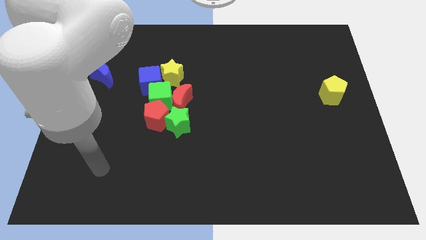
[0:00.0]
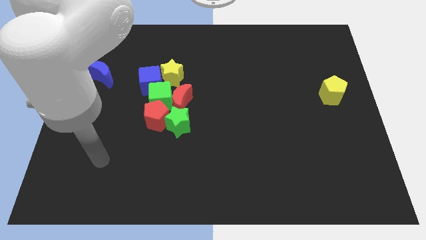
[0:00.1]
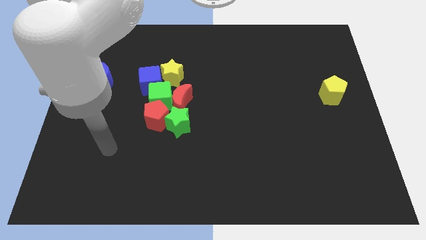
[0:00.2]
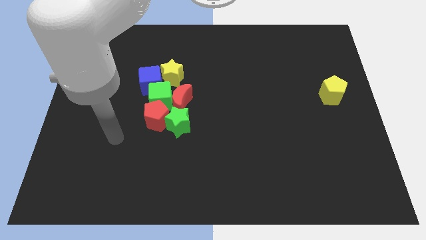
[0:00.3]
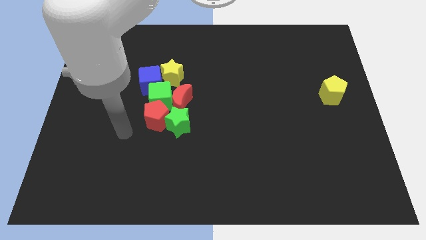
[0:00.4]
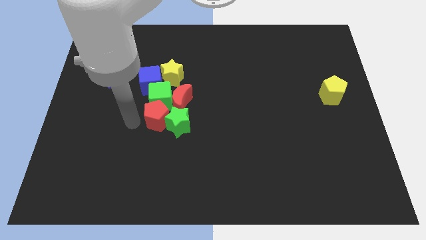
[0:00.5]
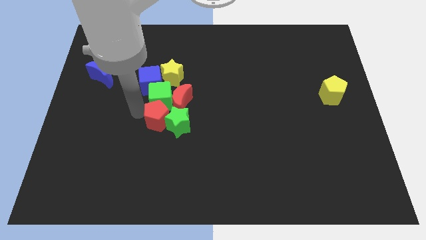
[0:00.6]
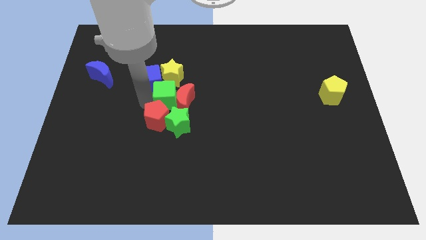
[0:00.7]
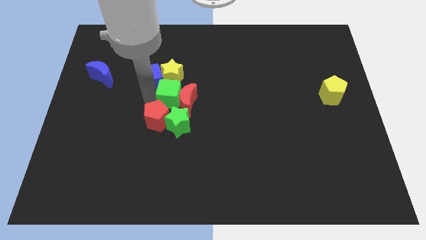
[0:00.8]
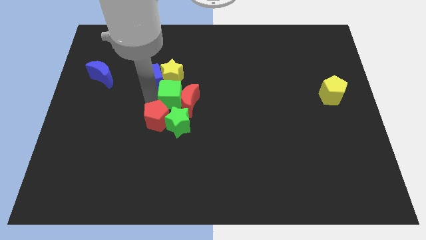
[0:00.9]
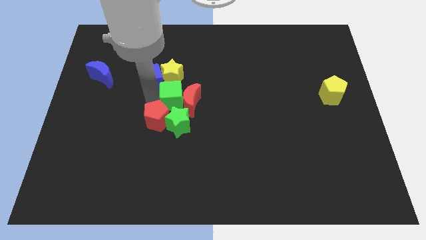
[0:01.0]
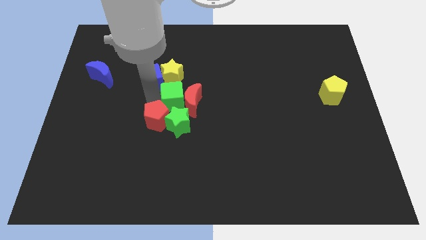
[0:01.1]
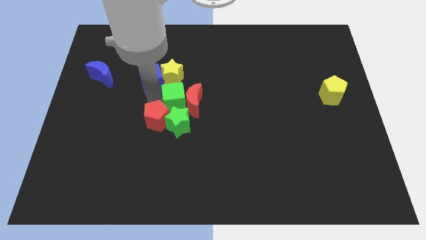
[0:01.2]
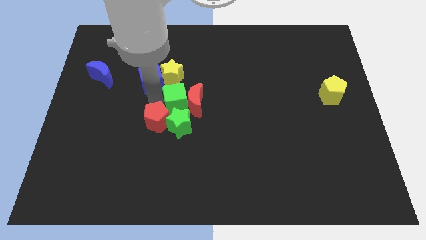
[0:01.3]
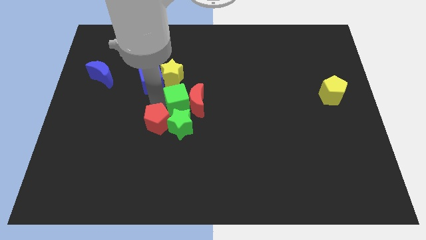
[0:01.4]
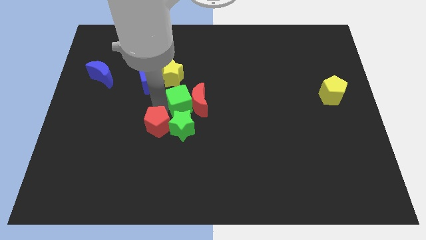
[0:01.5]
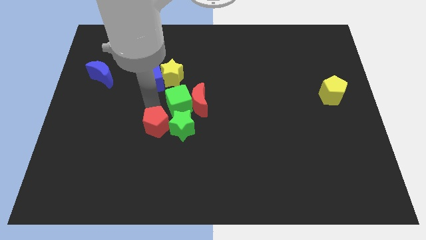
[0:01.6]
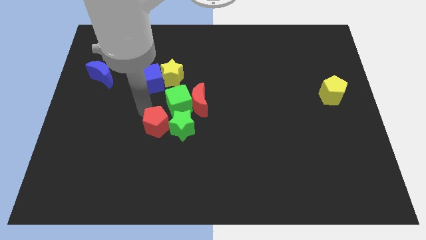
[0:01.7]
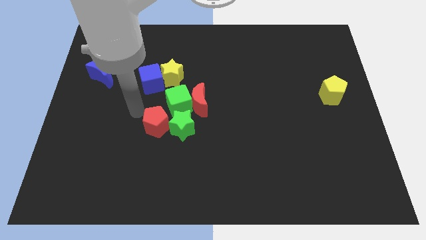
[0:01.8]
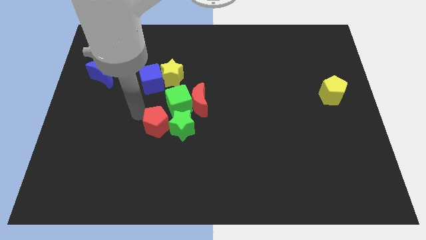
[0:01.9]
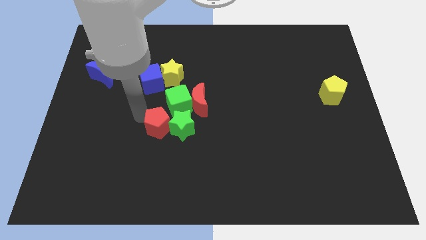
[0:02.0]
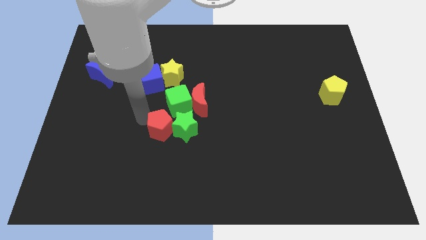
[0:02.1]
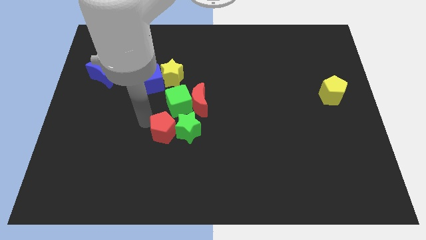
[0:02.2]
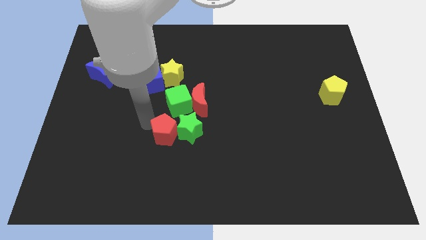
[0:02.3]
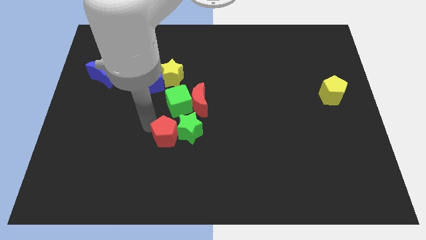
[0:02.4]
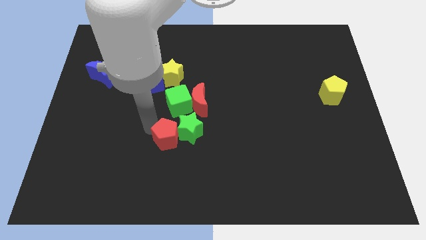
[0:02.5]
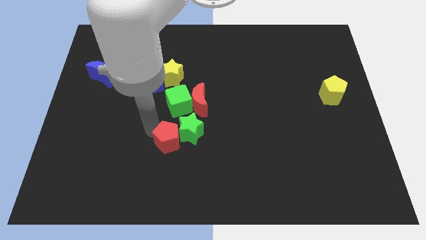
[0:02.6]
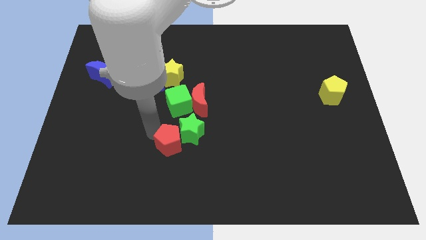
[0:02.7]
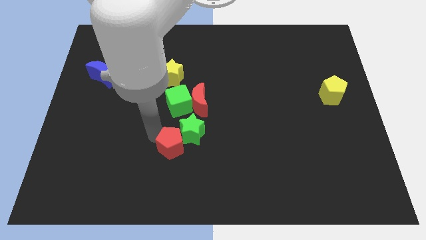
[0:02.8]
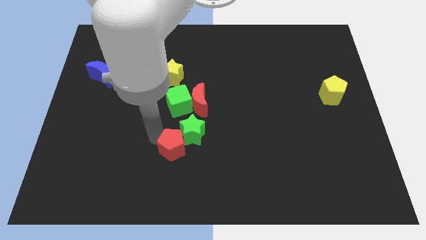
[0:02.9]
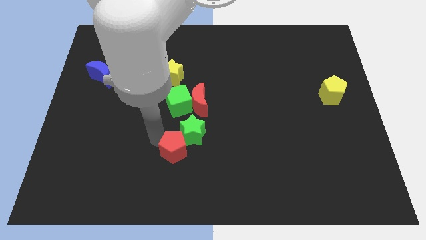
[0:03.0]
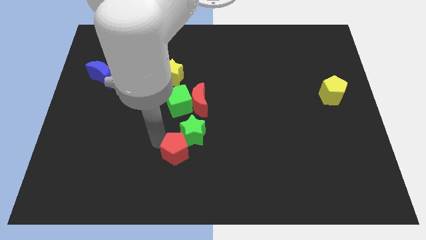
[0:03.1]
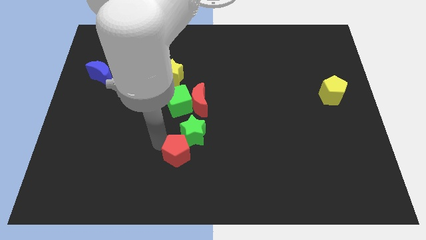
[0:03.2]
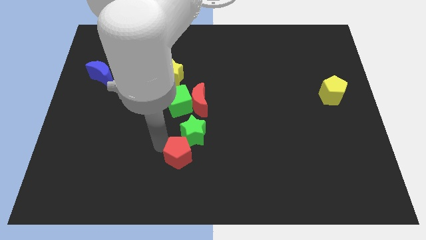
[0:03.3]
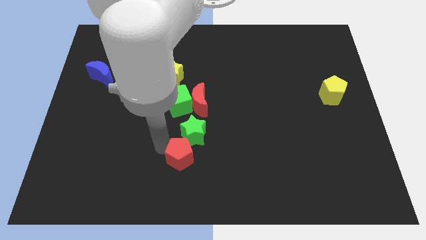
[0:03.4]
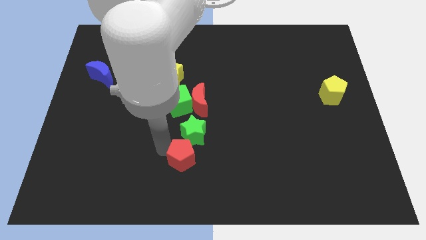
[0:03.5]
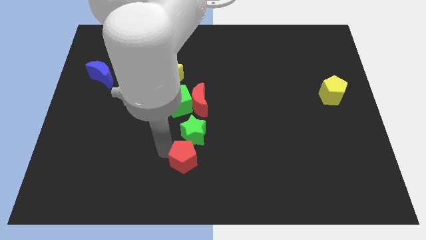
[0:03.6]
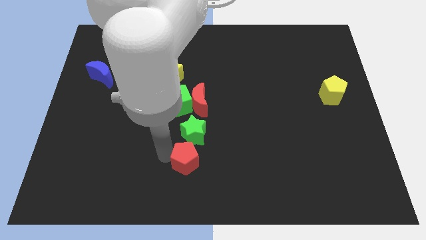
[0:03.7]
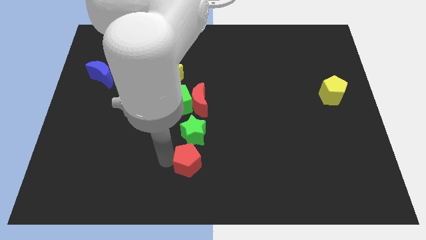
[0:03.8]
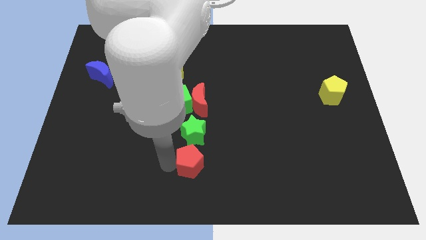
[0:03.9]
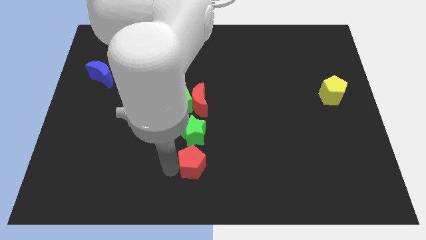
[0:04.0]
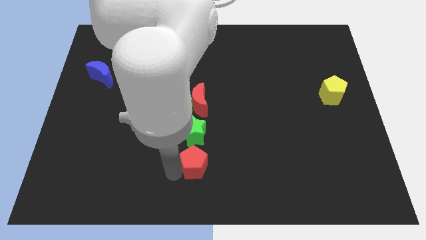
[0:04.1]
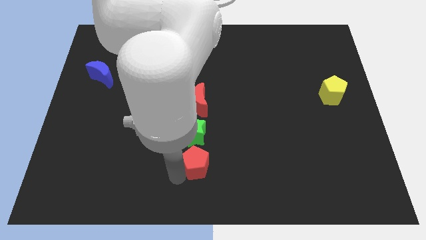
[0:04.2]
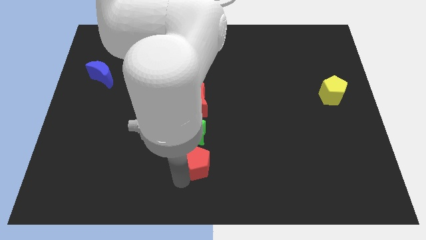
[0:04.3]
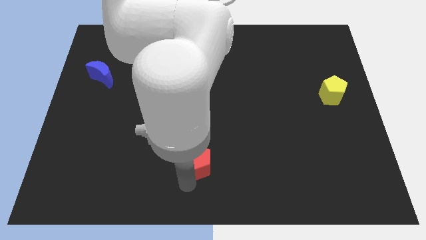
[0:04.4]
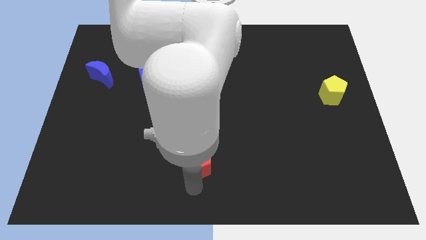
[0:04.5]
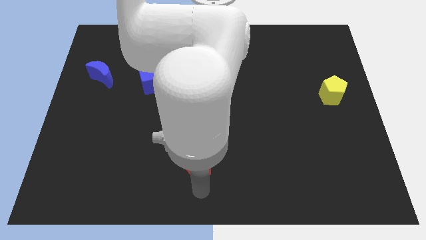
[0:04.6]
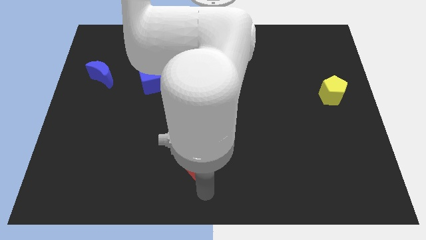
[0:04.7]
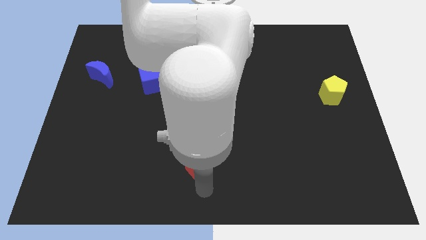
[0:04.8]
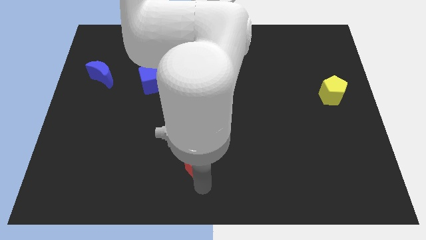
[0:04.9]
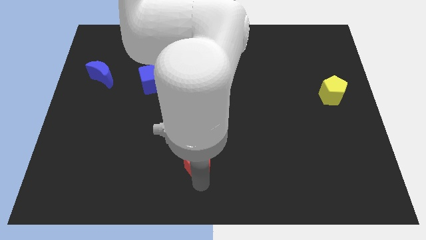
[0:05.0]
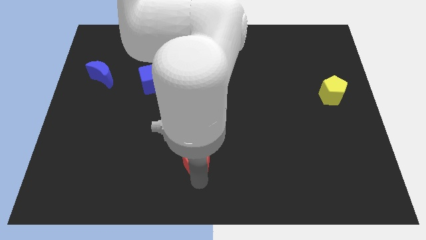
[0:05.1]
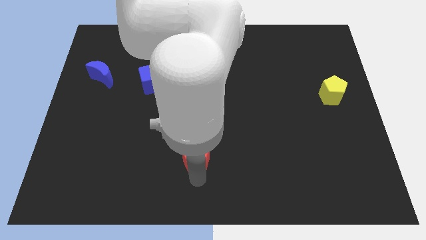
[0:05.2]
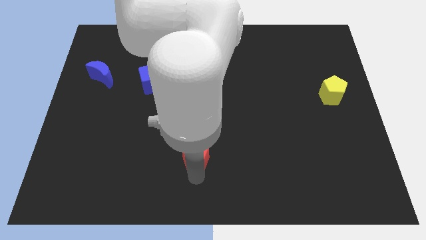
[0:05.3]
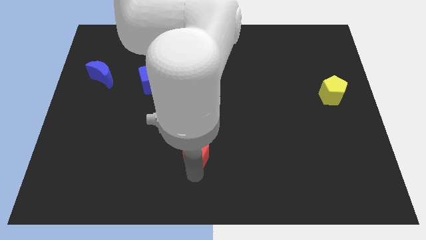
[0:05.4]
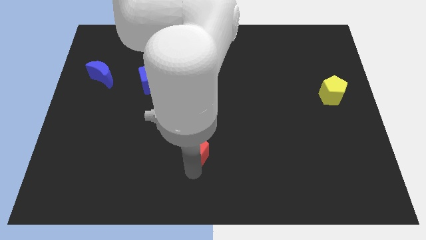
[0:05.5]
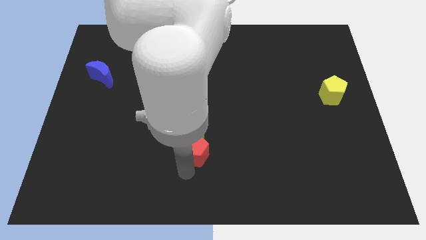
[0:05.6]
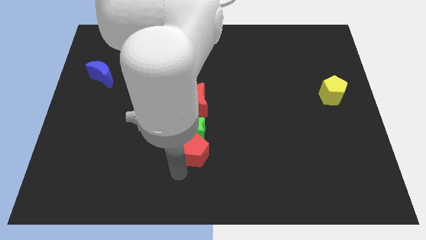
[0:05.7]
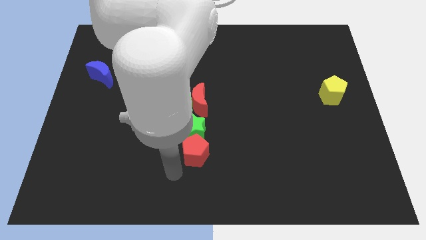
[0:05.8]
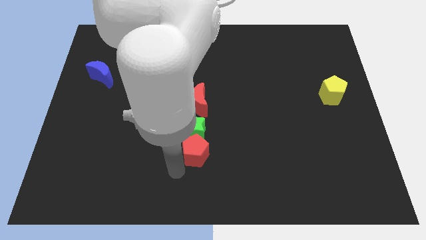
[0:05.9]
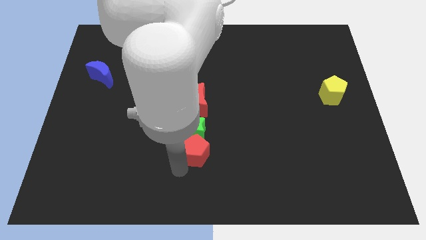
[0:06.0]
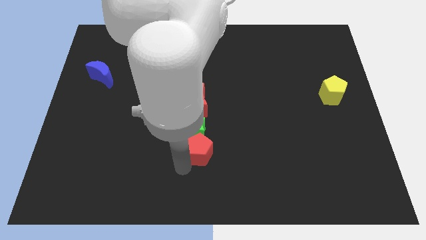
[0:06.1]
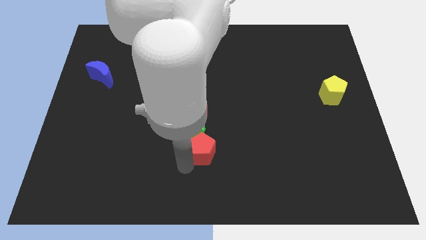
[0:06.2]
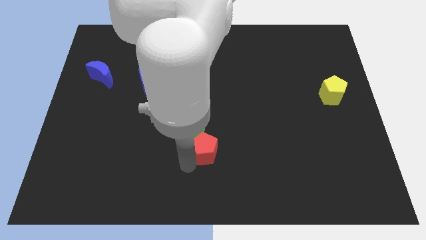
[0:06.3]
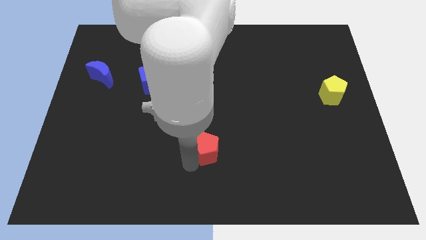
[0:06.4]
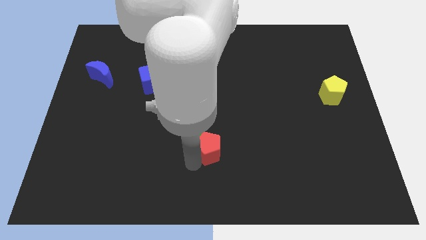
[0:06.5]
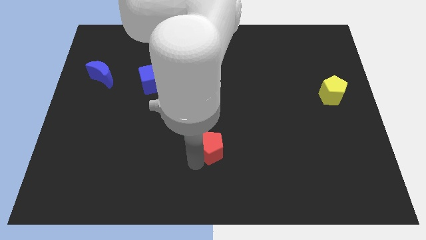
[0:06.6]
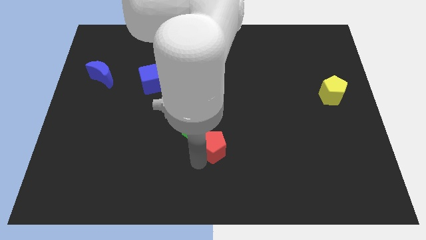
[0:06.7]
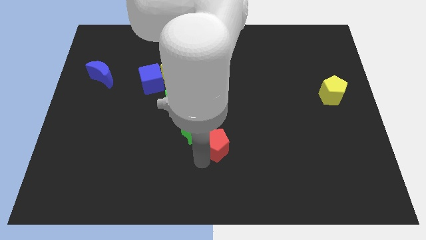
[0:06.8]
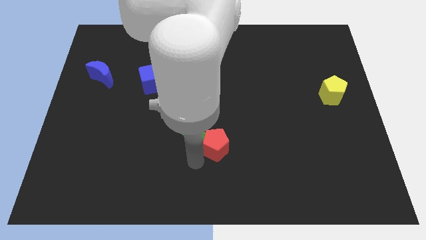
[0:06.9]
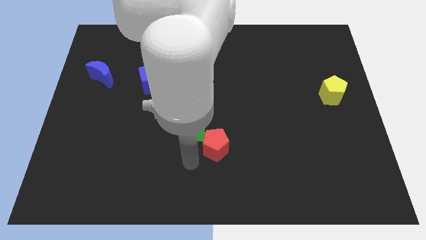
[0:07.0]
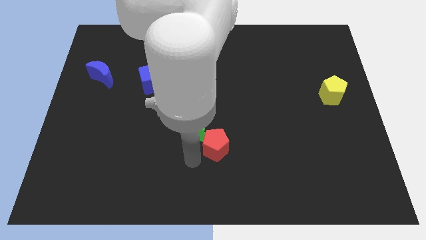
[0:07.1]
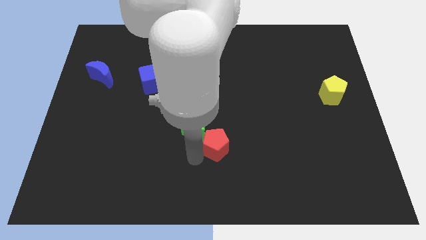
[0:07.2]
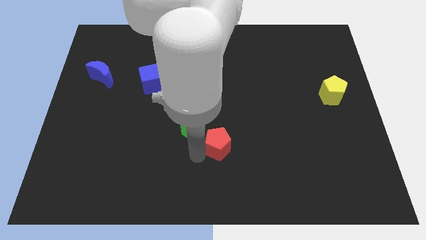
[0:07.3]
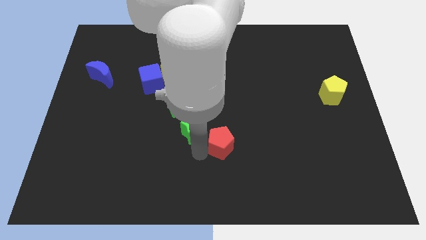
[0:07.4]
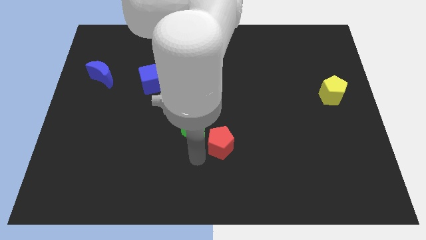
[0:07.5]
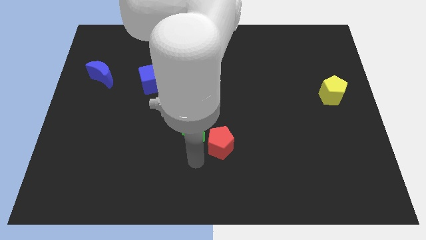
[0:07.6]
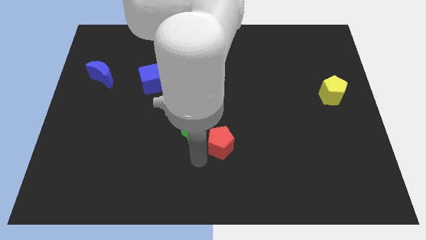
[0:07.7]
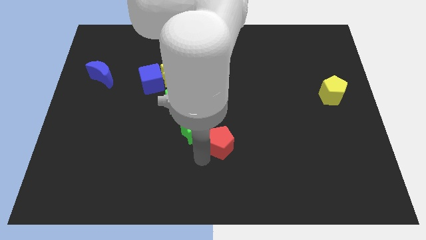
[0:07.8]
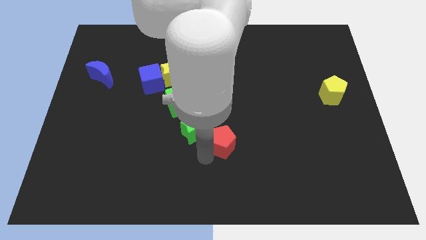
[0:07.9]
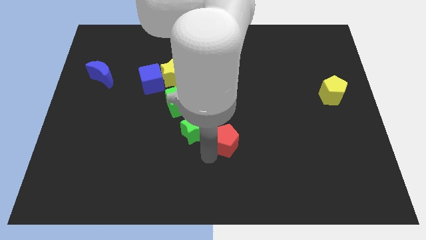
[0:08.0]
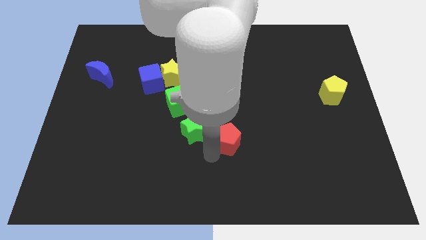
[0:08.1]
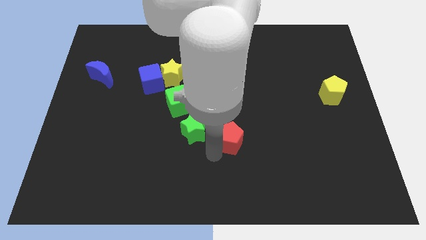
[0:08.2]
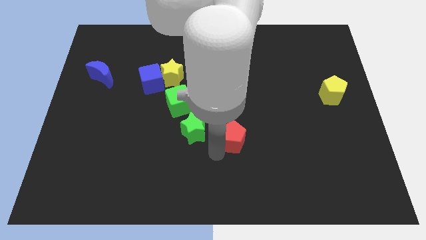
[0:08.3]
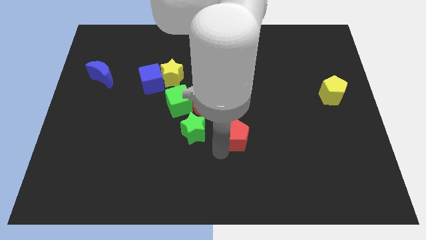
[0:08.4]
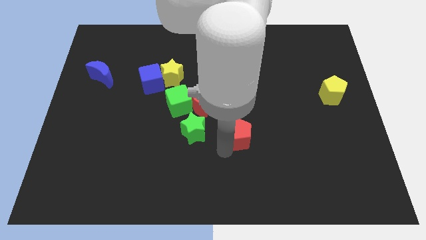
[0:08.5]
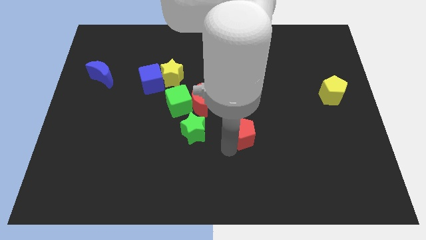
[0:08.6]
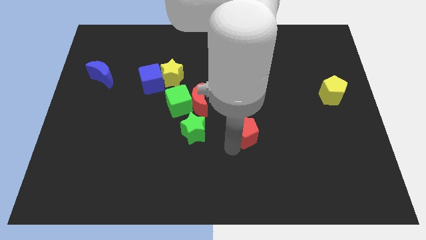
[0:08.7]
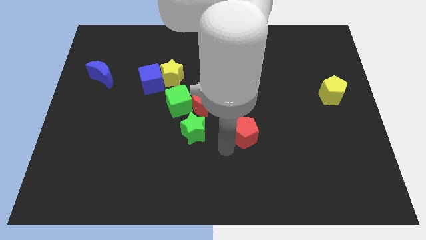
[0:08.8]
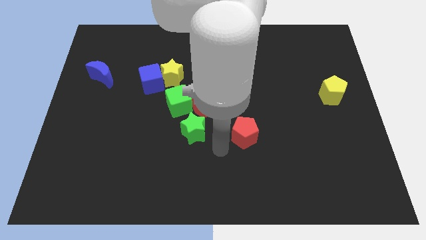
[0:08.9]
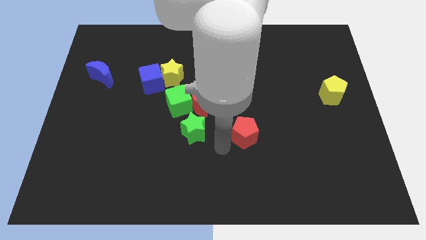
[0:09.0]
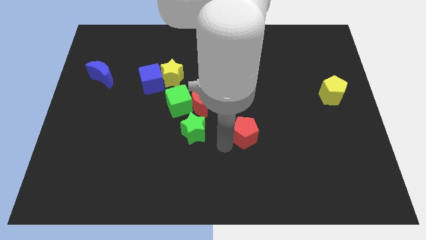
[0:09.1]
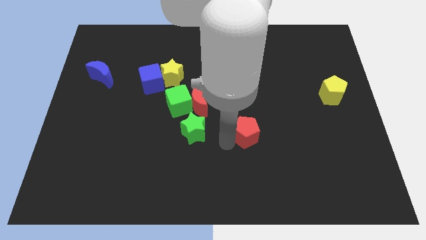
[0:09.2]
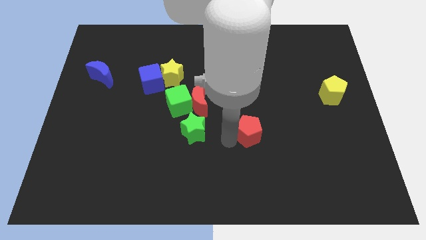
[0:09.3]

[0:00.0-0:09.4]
slide the red pentagon to the right
